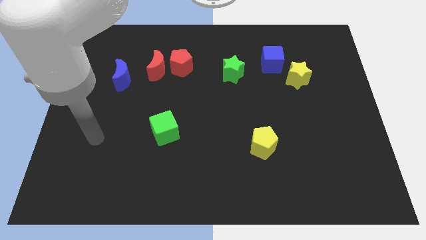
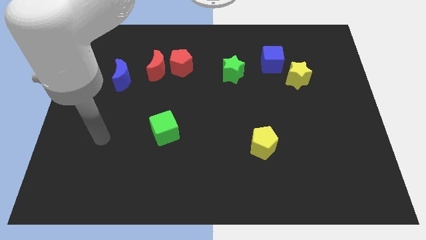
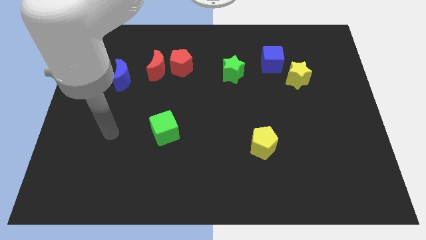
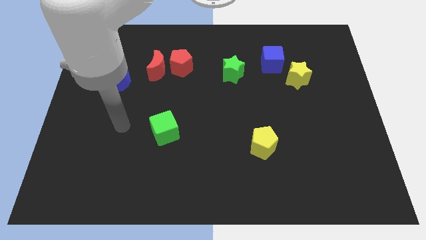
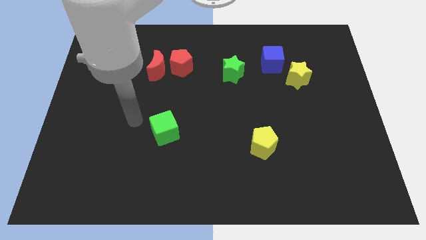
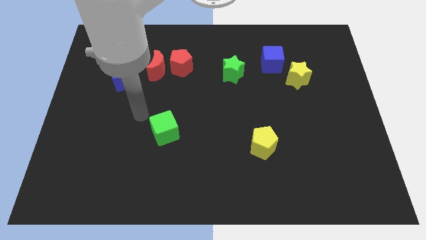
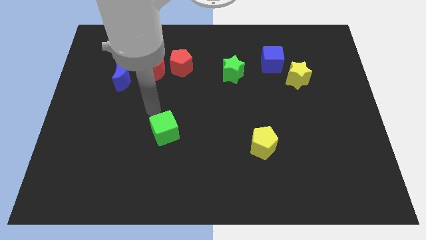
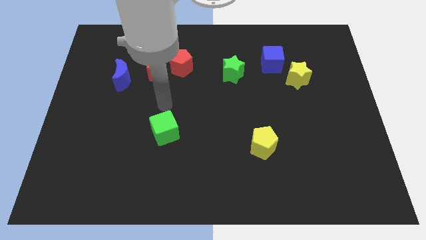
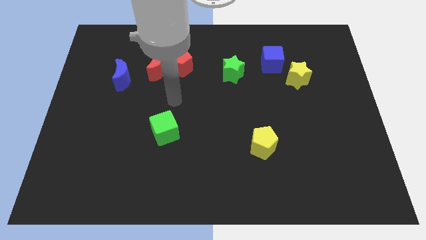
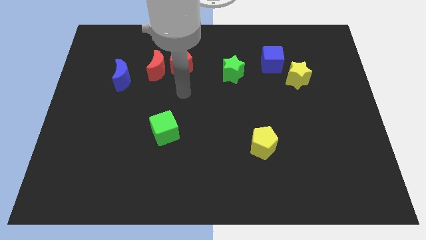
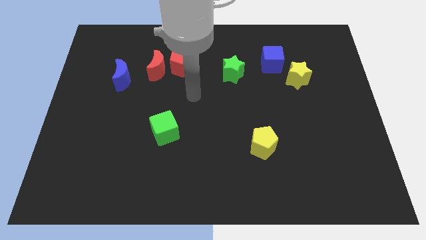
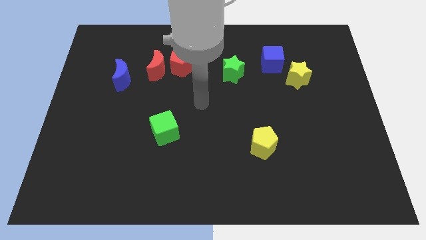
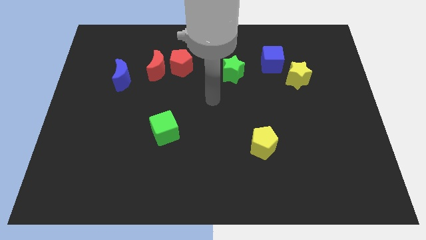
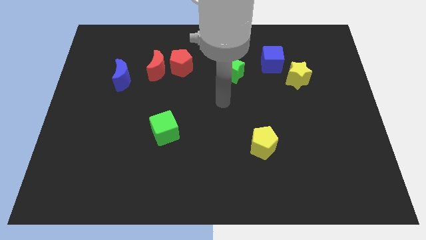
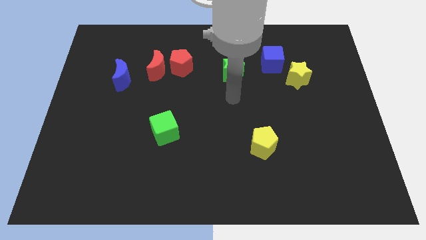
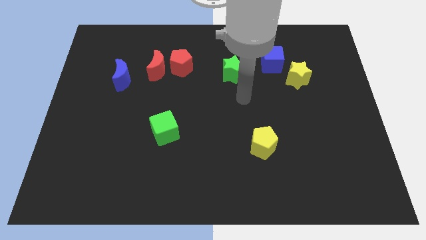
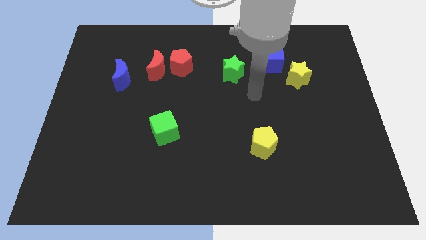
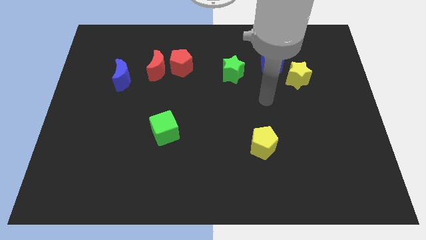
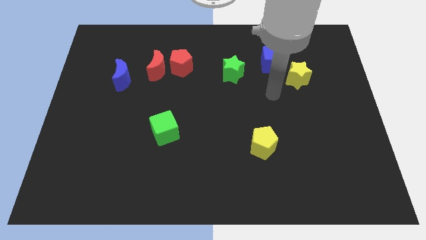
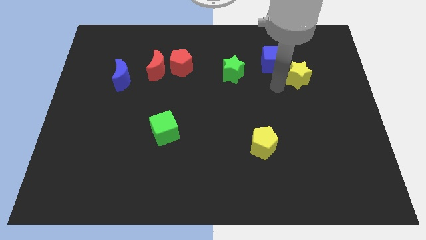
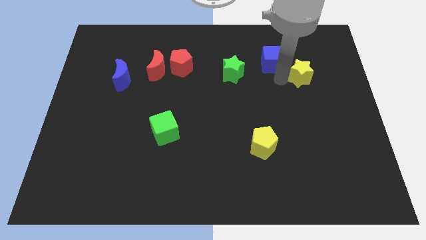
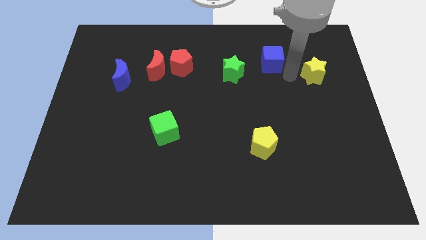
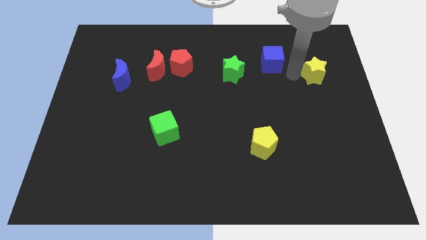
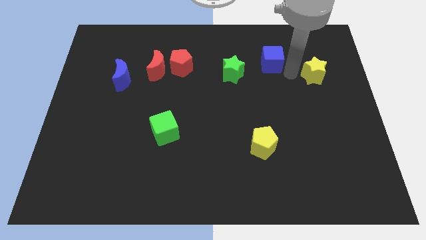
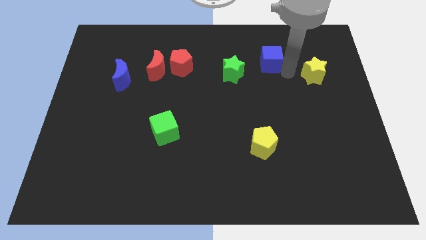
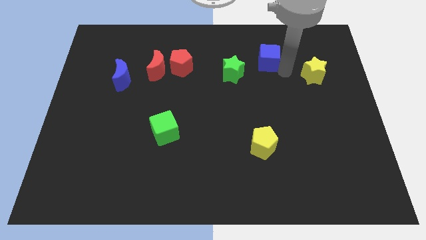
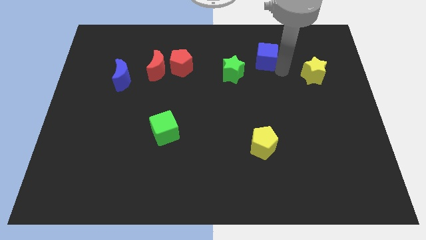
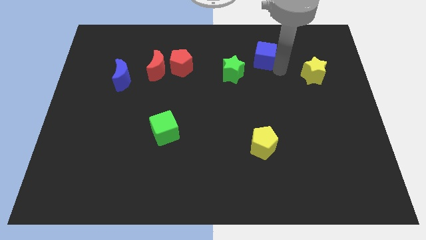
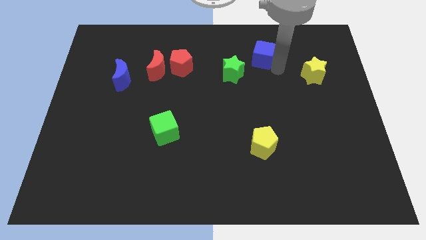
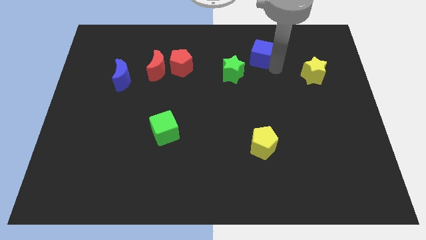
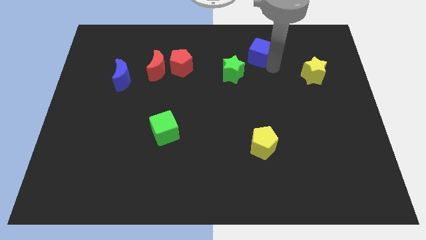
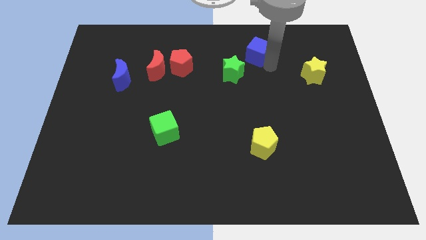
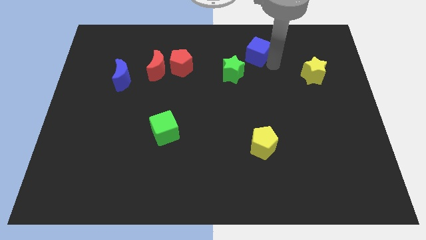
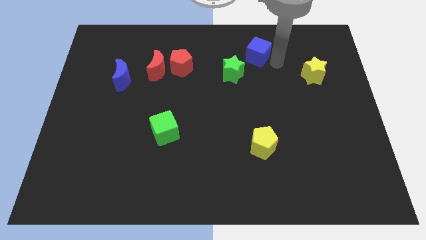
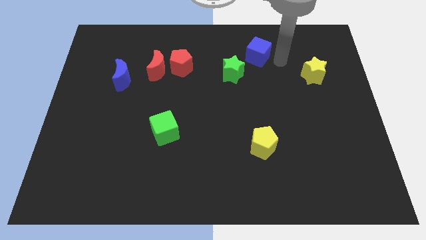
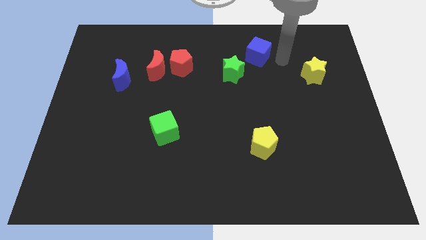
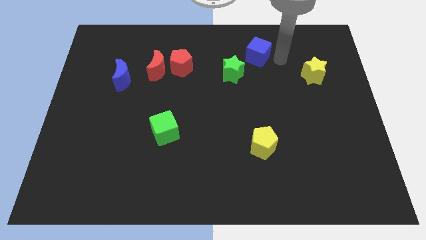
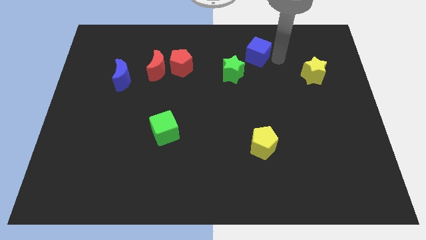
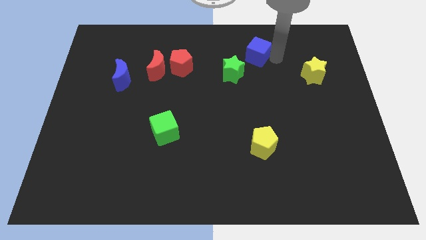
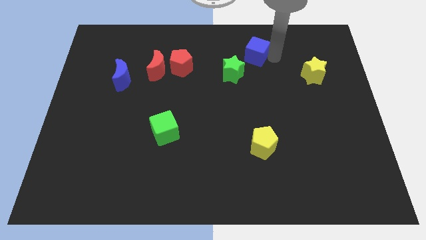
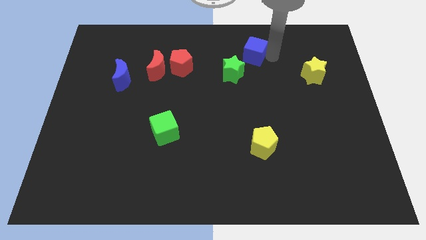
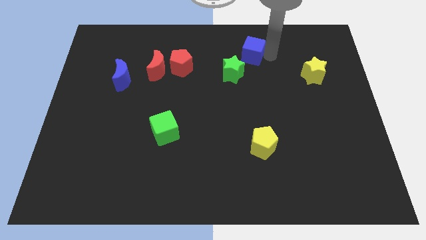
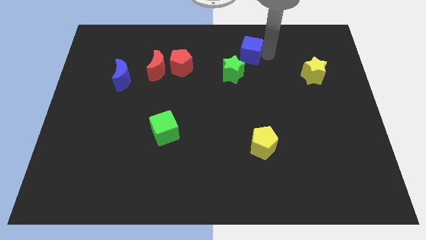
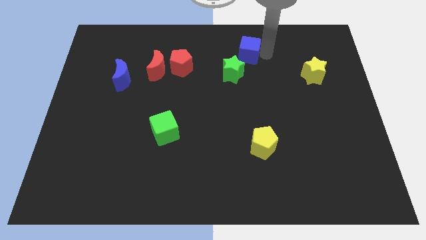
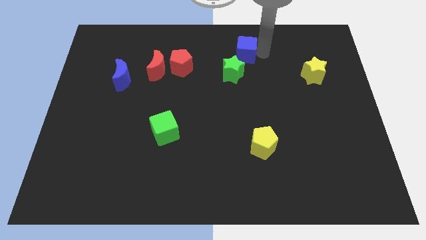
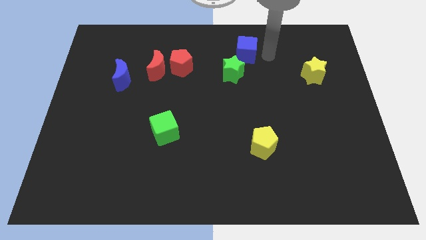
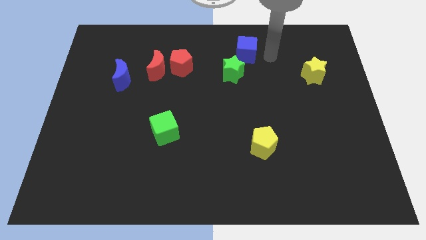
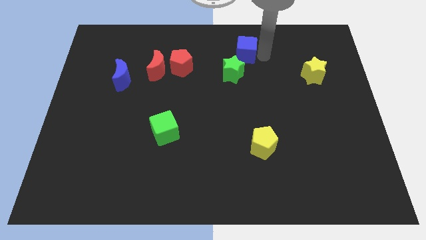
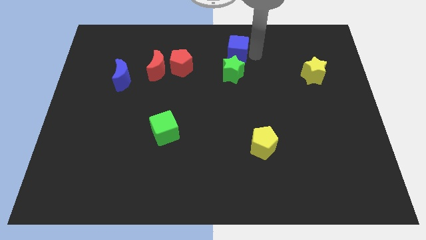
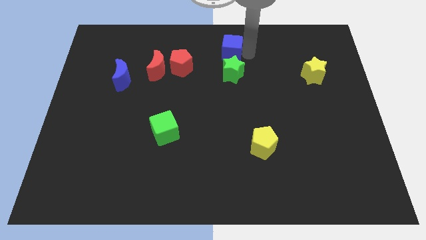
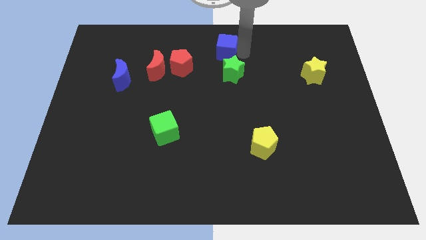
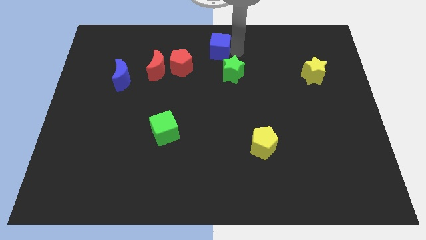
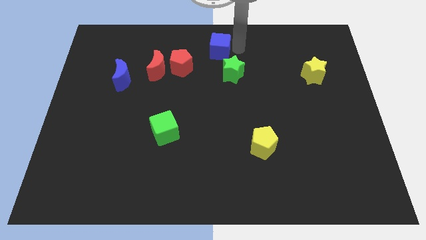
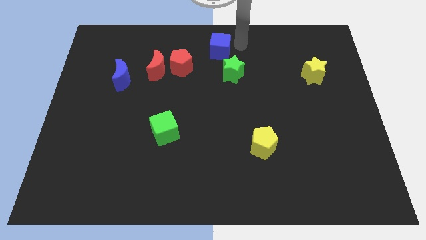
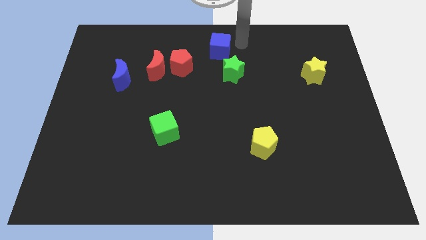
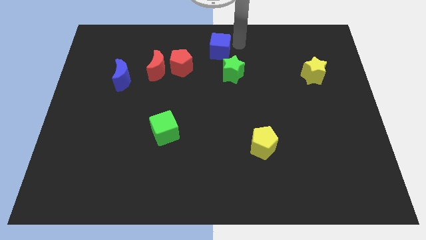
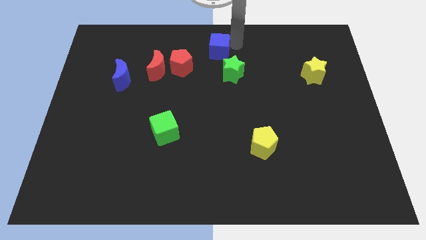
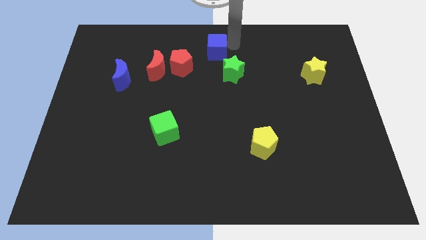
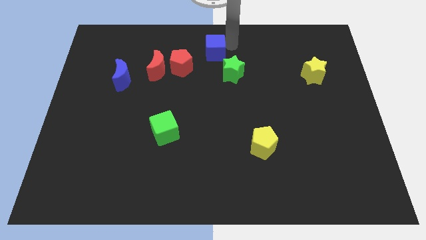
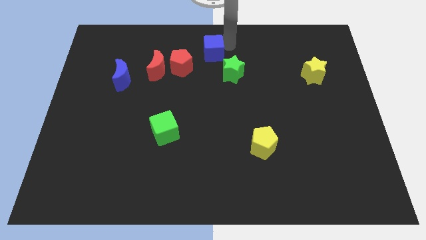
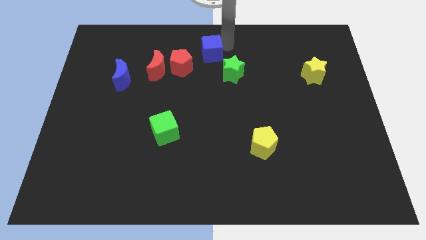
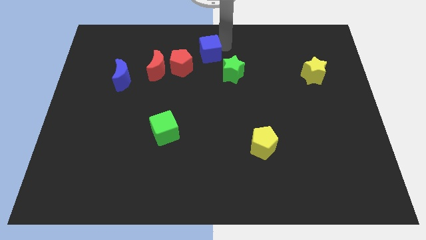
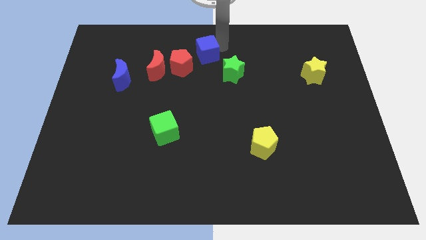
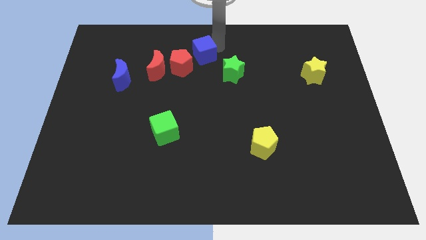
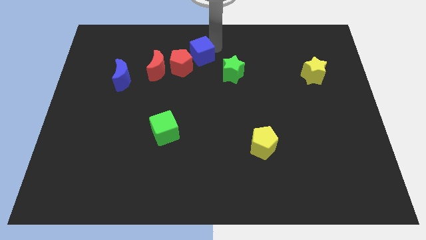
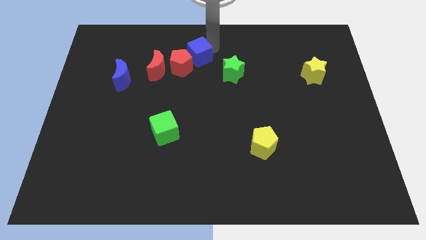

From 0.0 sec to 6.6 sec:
push the blue cube close to the red pentagon
